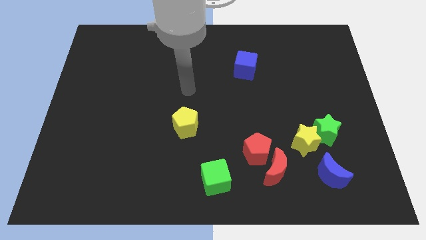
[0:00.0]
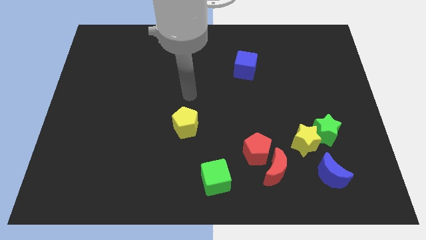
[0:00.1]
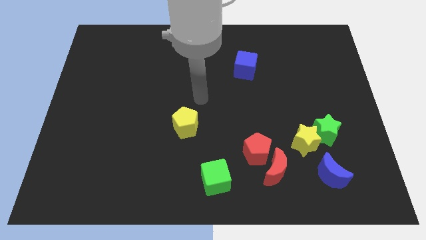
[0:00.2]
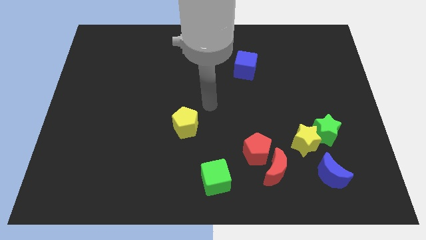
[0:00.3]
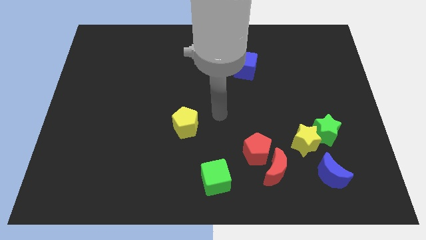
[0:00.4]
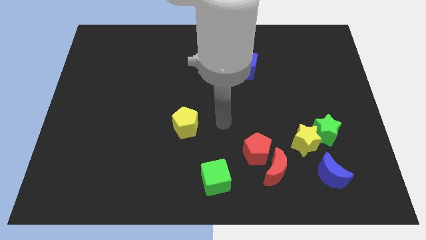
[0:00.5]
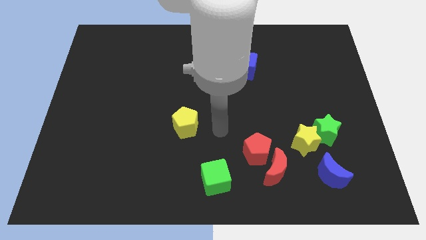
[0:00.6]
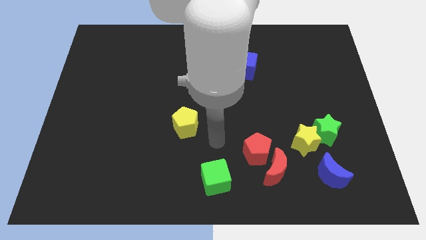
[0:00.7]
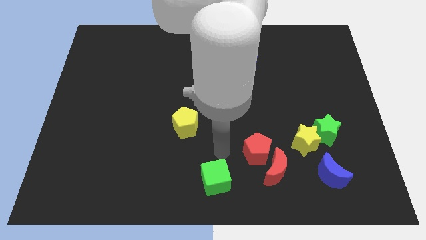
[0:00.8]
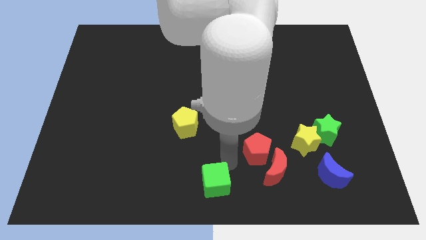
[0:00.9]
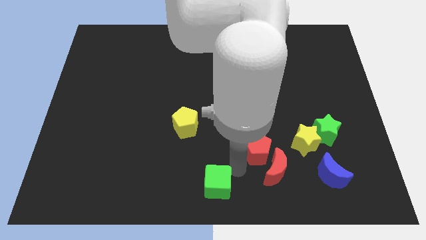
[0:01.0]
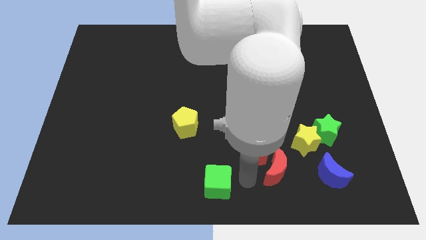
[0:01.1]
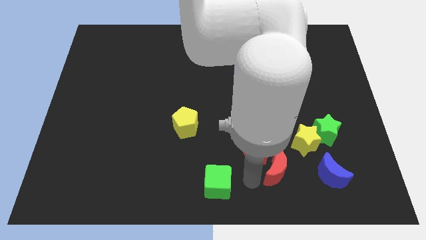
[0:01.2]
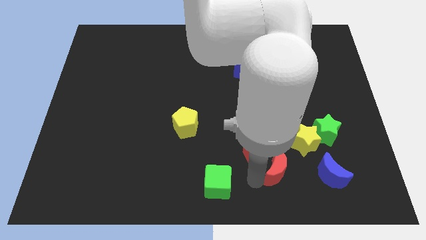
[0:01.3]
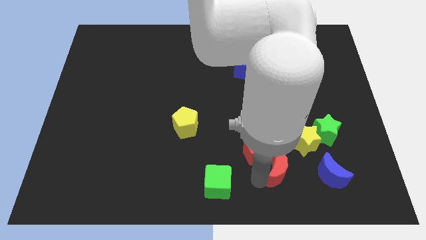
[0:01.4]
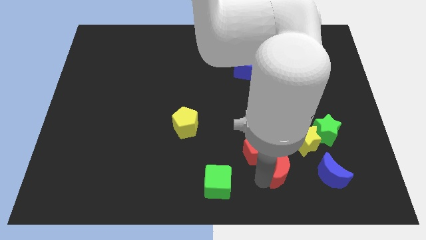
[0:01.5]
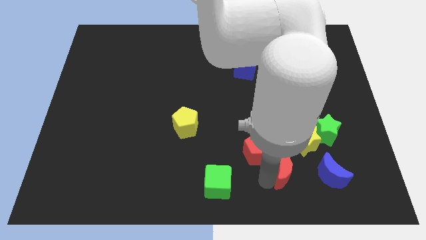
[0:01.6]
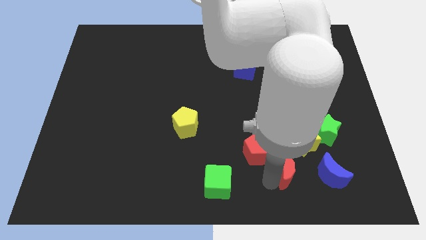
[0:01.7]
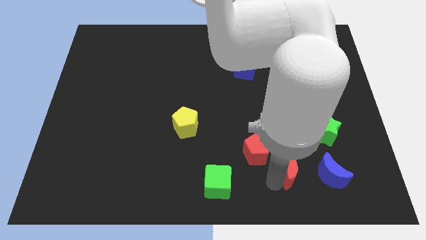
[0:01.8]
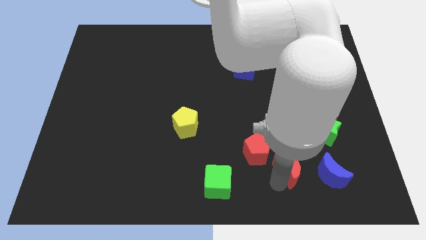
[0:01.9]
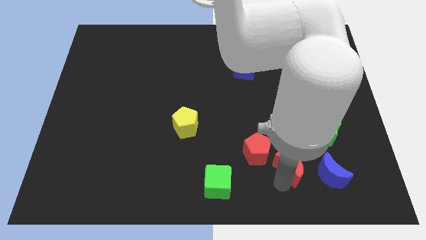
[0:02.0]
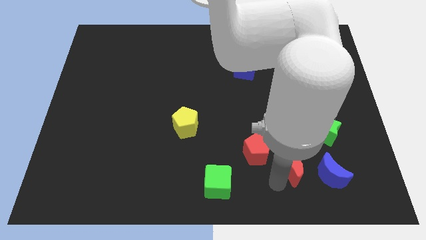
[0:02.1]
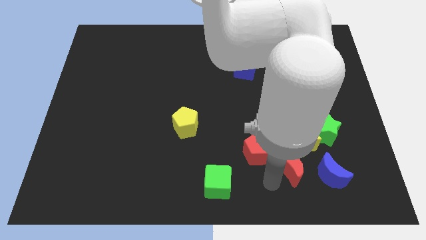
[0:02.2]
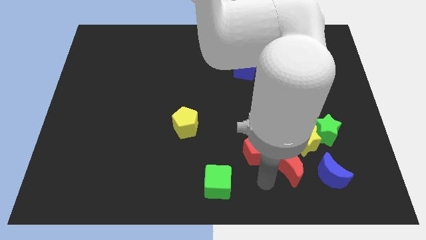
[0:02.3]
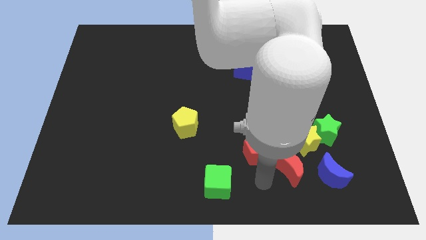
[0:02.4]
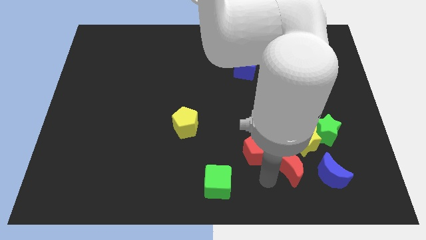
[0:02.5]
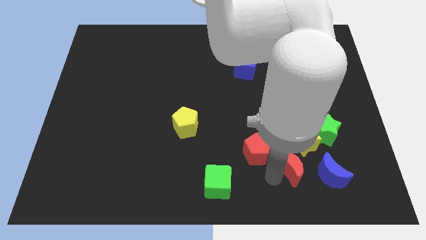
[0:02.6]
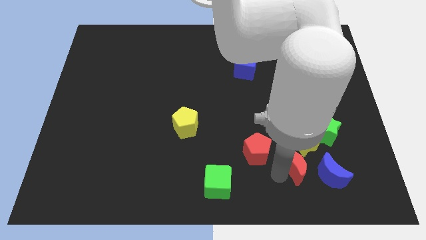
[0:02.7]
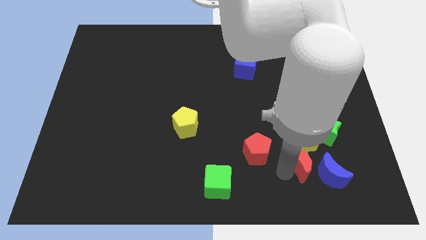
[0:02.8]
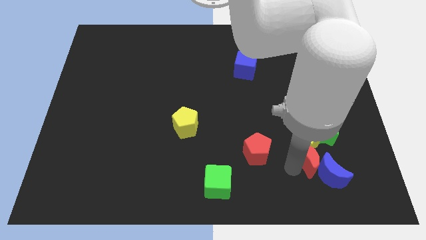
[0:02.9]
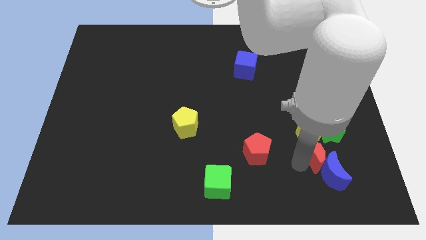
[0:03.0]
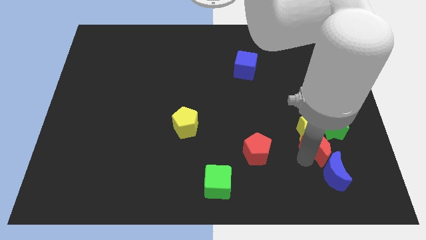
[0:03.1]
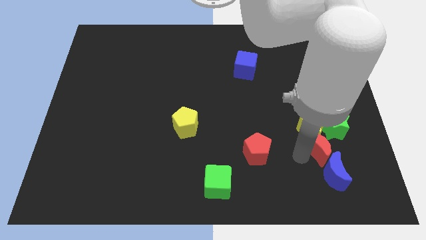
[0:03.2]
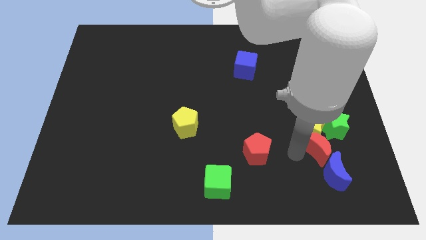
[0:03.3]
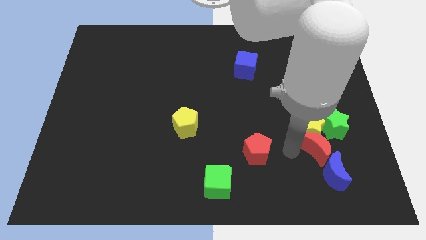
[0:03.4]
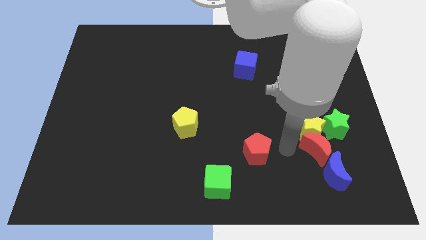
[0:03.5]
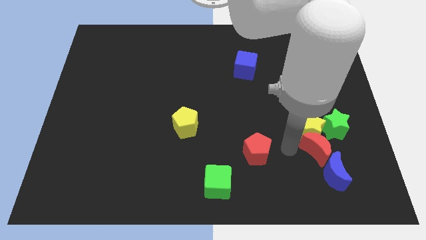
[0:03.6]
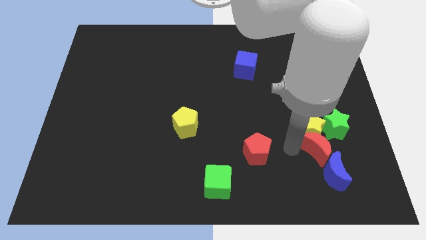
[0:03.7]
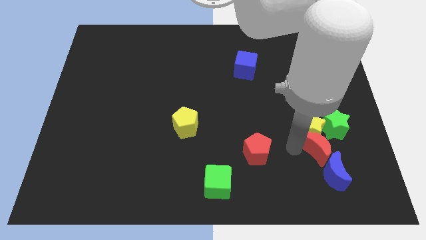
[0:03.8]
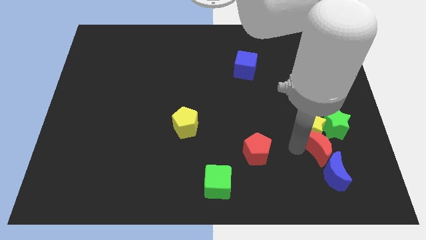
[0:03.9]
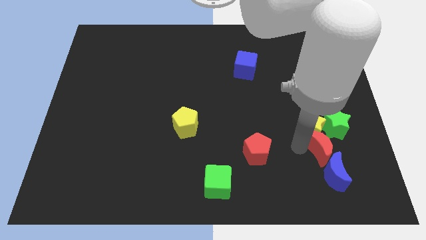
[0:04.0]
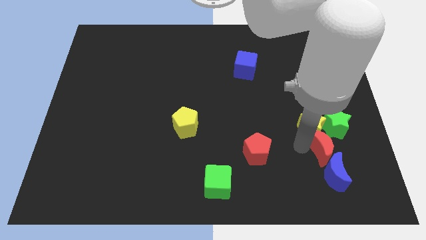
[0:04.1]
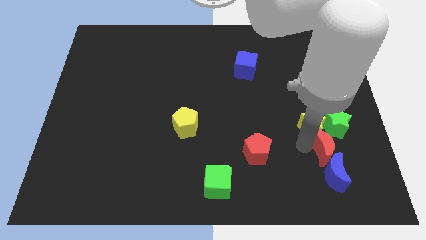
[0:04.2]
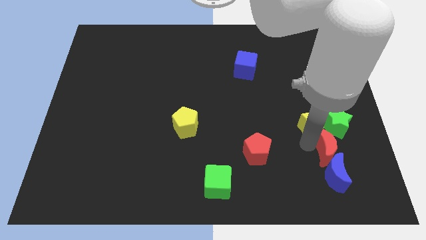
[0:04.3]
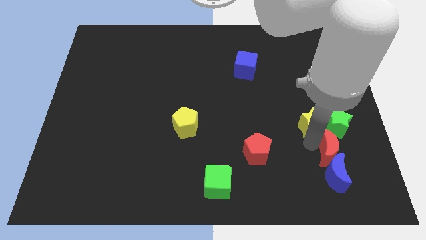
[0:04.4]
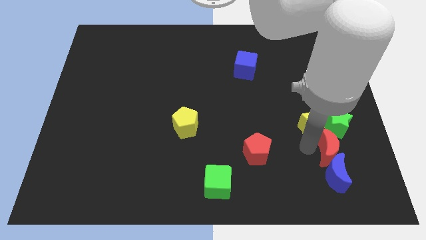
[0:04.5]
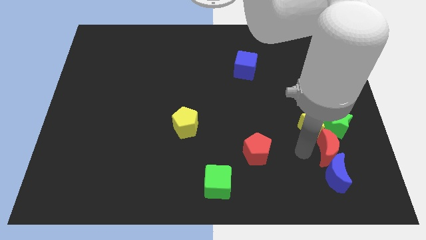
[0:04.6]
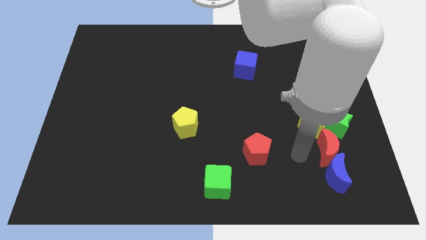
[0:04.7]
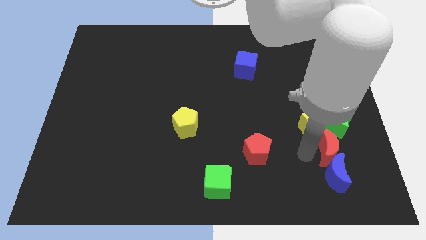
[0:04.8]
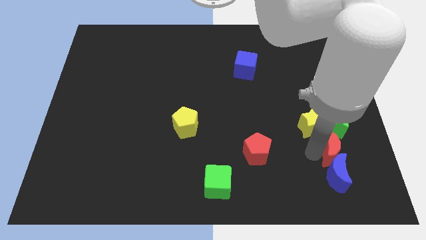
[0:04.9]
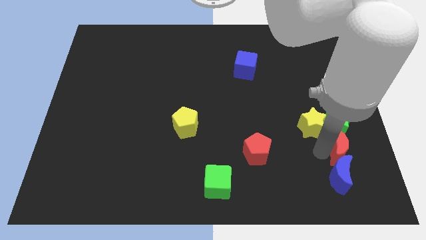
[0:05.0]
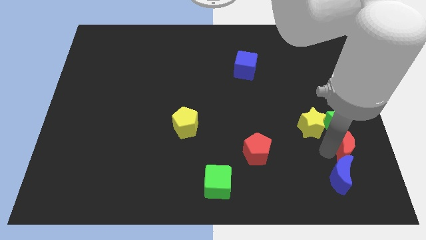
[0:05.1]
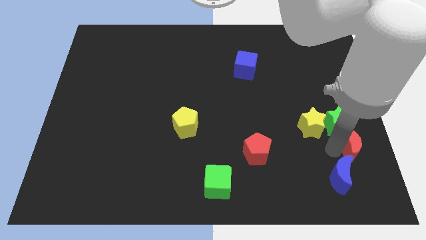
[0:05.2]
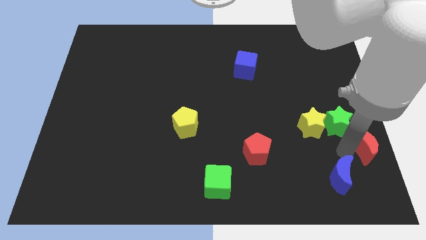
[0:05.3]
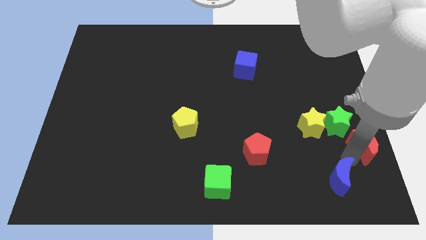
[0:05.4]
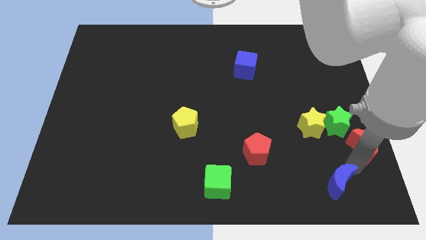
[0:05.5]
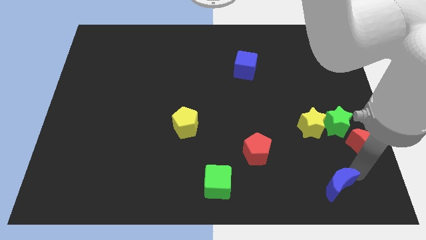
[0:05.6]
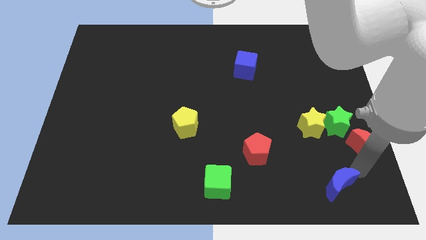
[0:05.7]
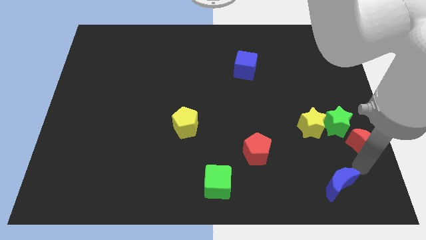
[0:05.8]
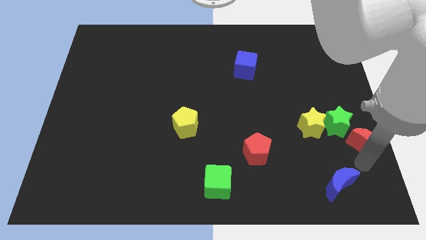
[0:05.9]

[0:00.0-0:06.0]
move the red moon to the right side of the board

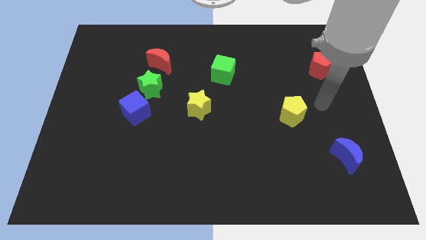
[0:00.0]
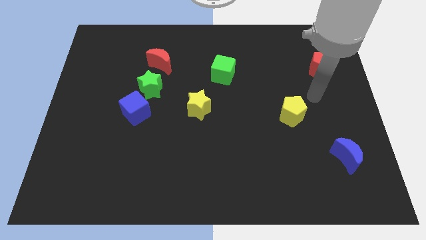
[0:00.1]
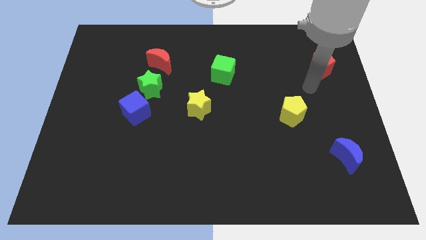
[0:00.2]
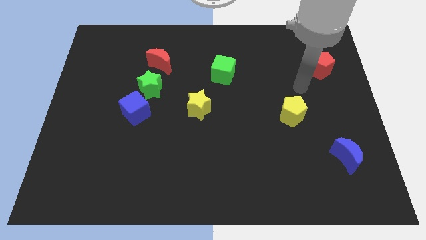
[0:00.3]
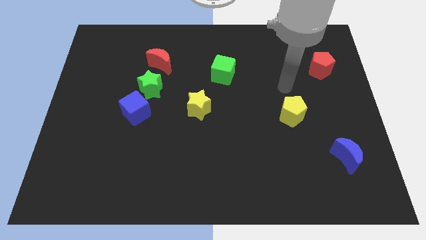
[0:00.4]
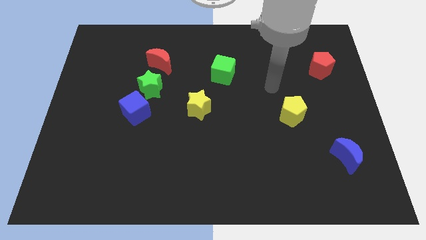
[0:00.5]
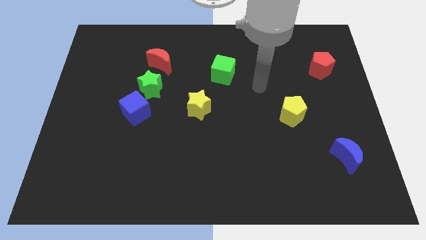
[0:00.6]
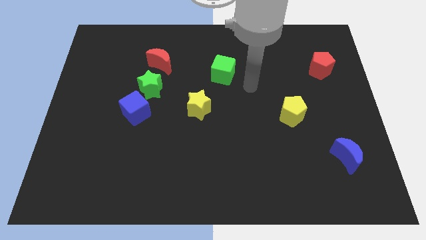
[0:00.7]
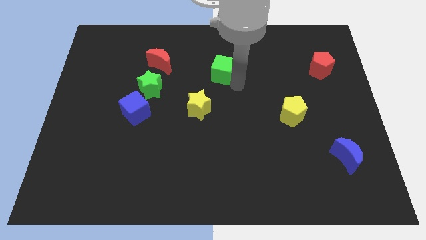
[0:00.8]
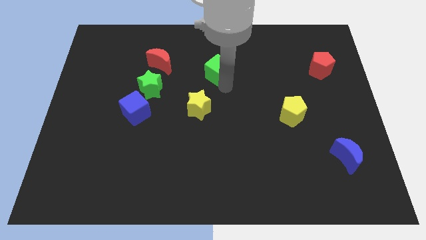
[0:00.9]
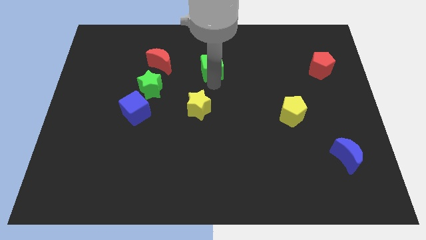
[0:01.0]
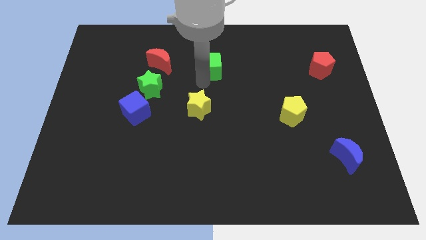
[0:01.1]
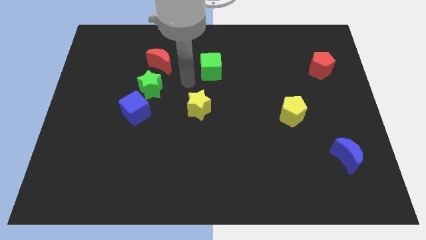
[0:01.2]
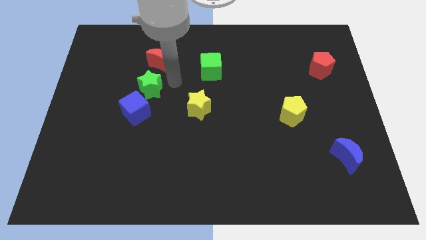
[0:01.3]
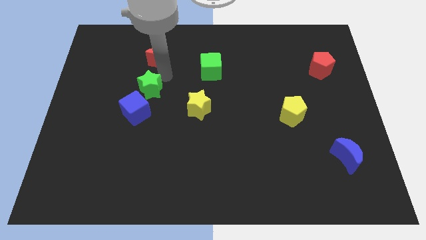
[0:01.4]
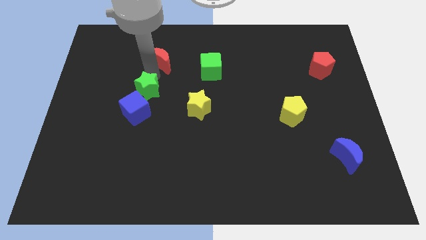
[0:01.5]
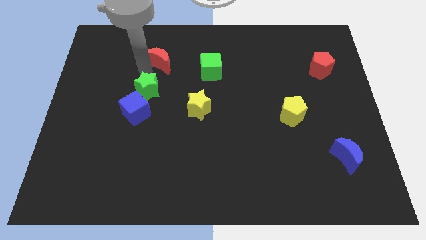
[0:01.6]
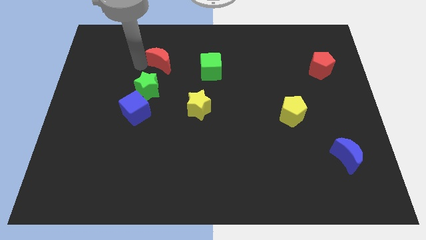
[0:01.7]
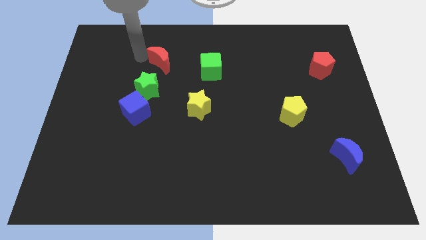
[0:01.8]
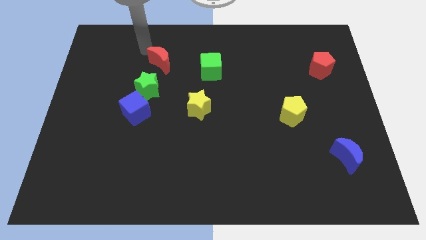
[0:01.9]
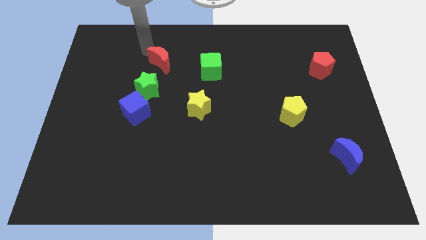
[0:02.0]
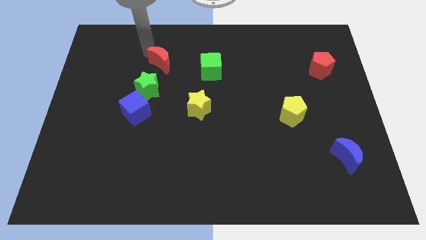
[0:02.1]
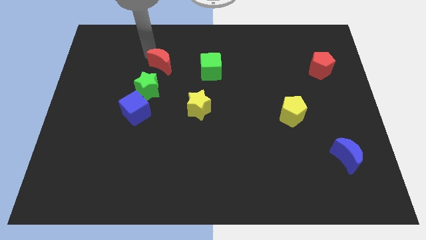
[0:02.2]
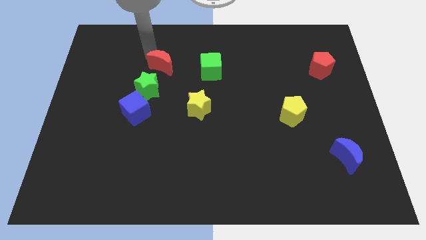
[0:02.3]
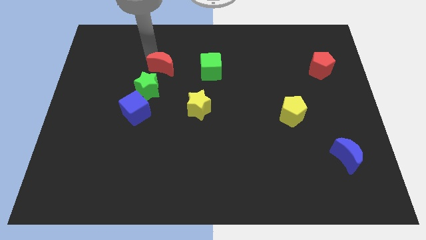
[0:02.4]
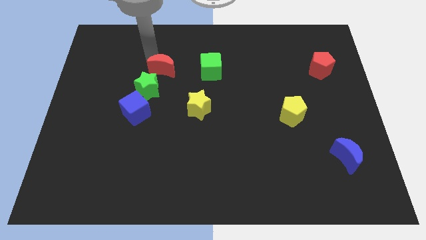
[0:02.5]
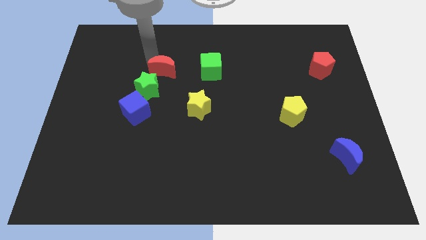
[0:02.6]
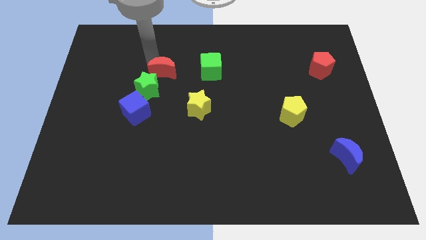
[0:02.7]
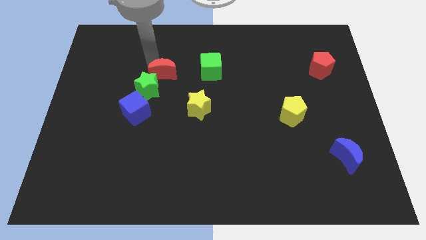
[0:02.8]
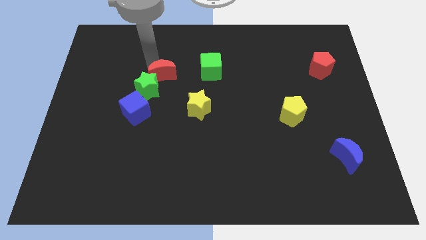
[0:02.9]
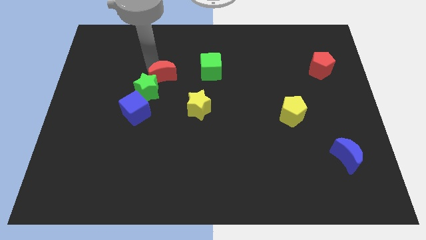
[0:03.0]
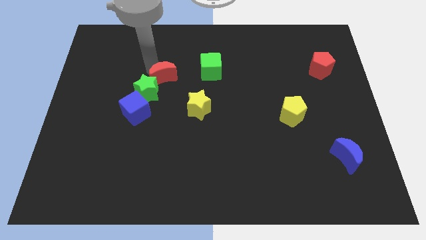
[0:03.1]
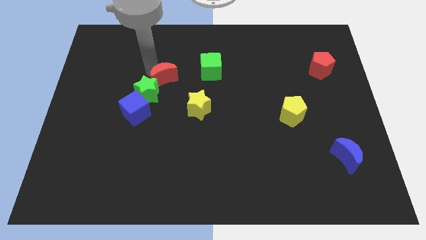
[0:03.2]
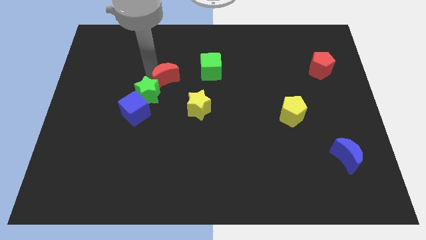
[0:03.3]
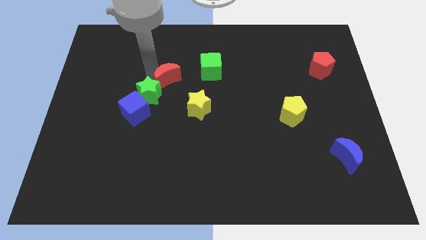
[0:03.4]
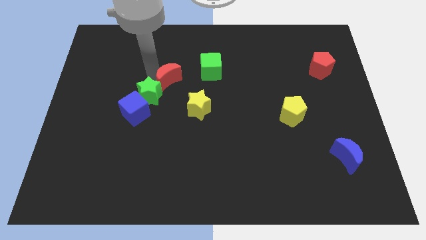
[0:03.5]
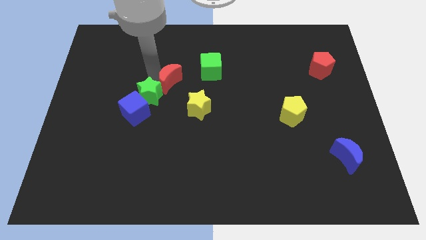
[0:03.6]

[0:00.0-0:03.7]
move the red moon to the center
